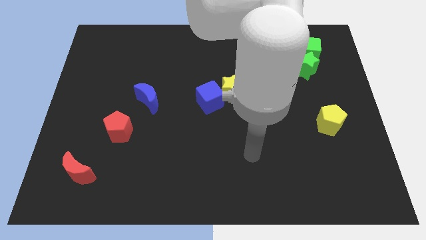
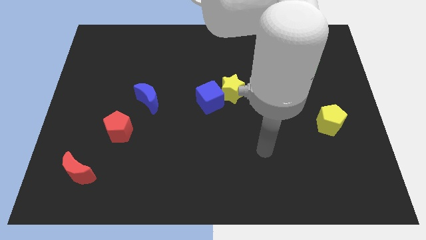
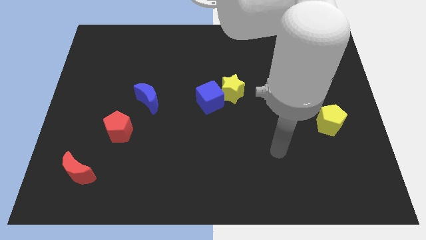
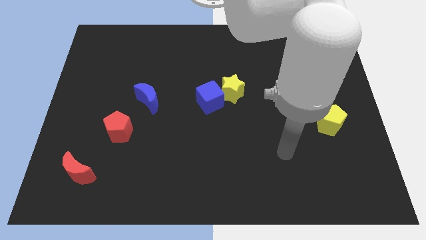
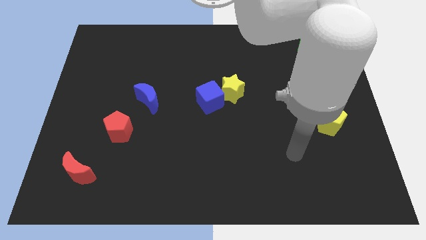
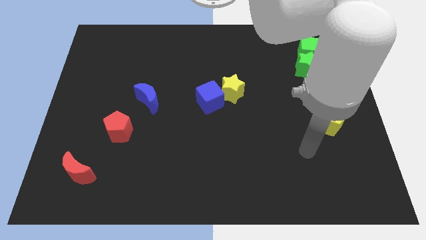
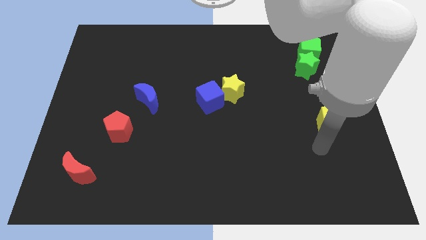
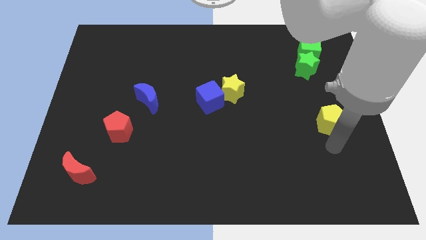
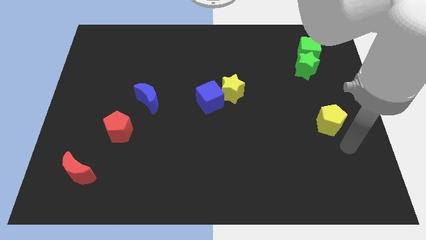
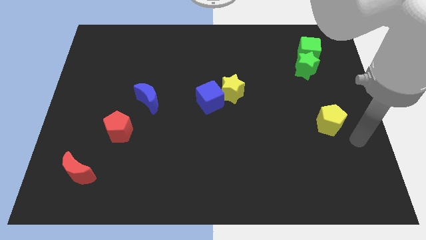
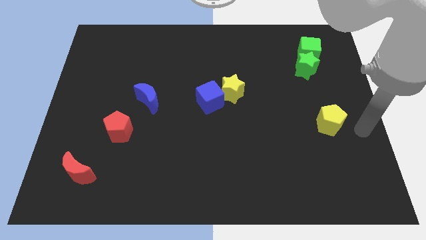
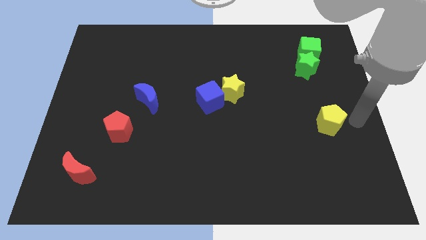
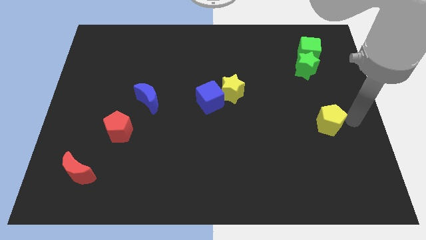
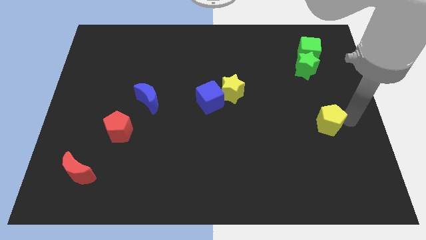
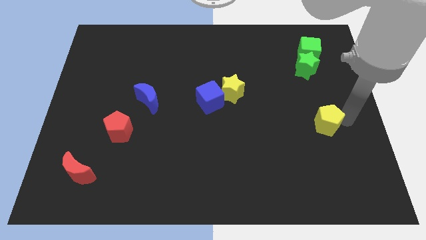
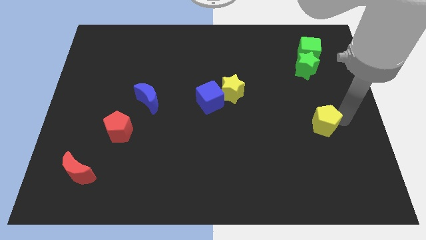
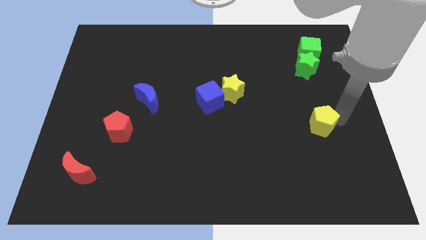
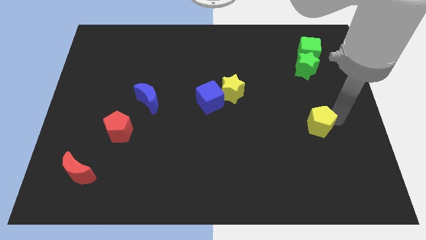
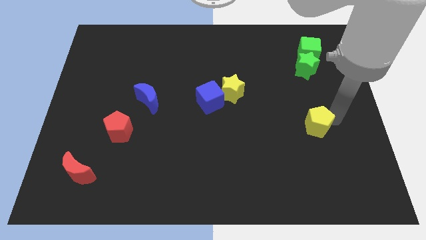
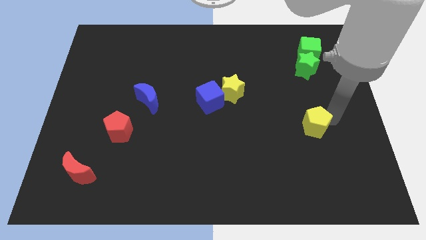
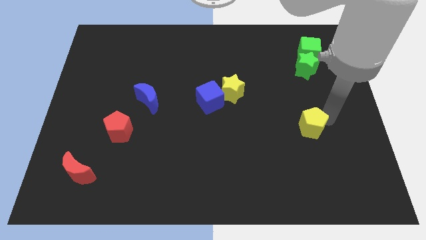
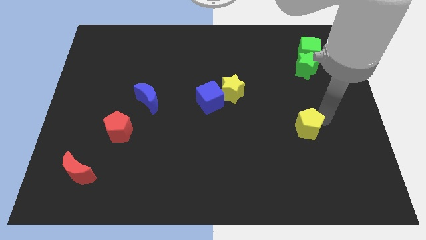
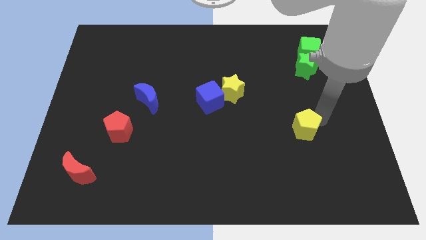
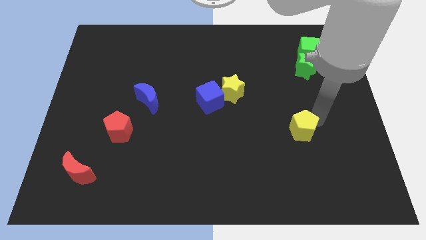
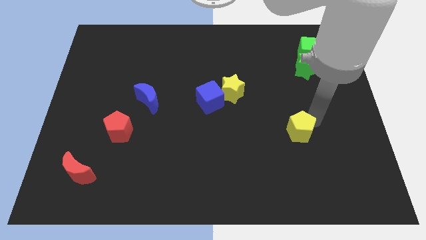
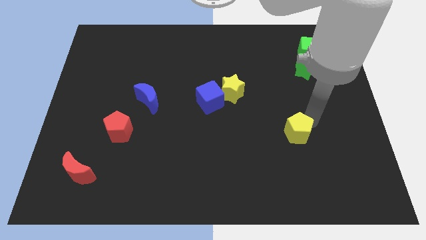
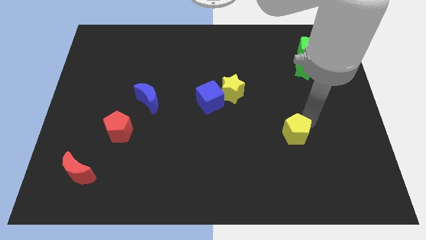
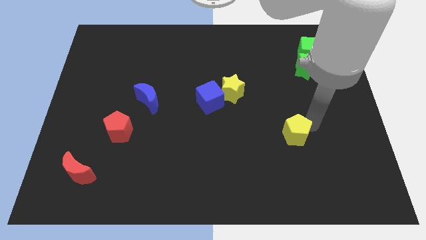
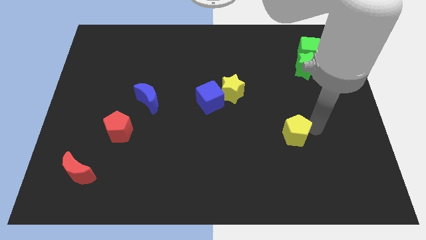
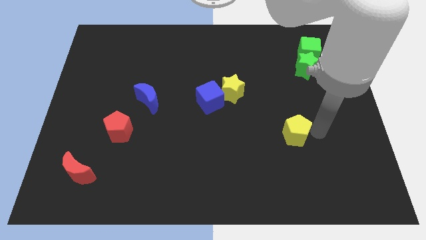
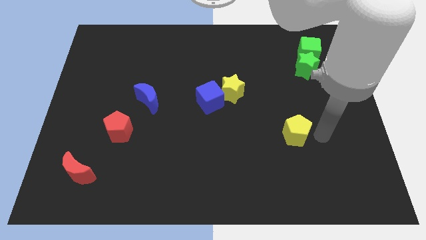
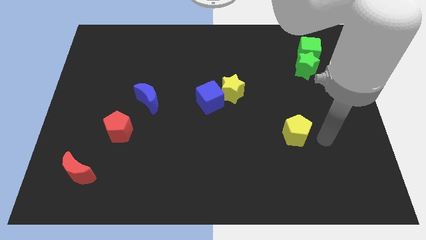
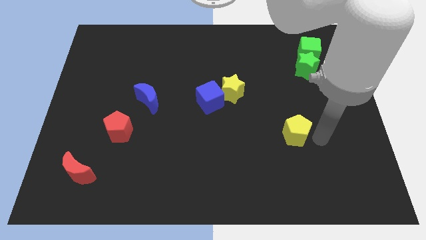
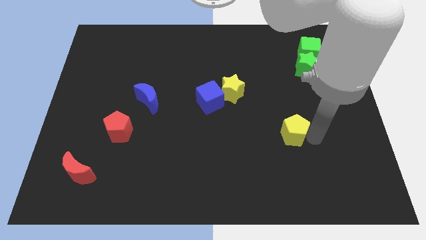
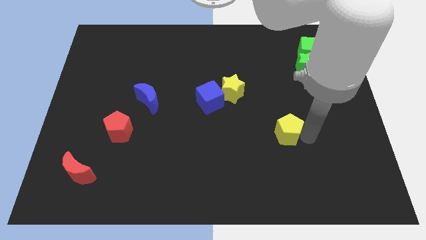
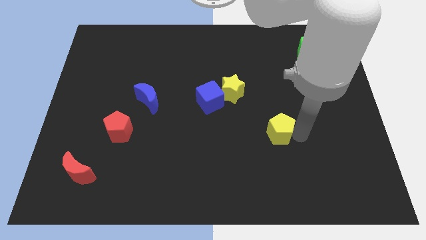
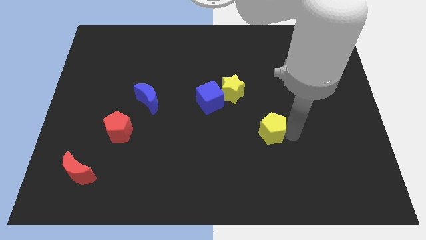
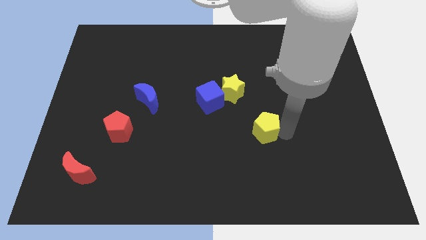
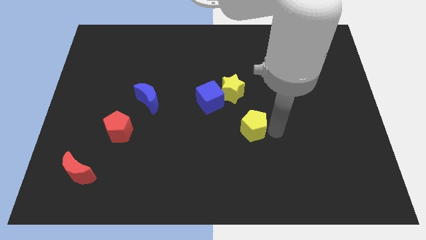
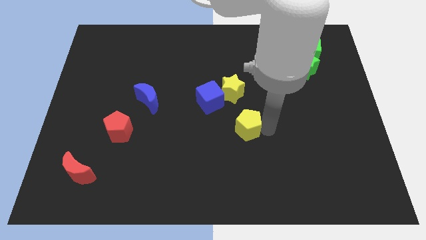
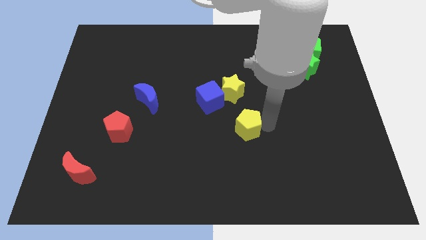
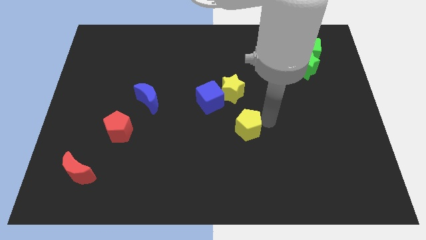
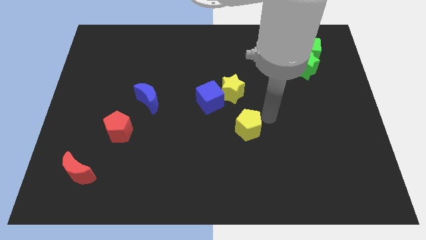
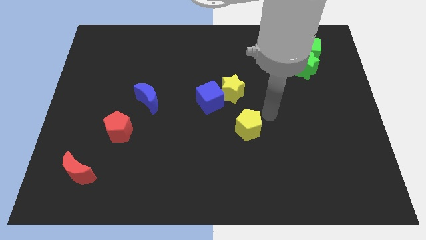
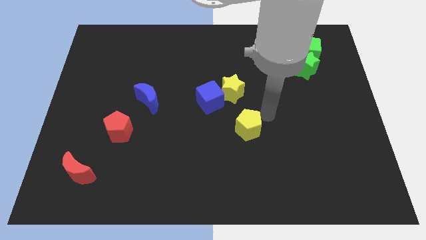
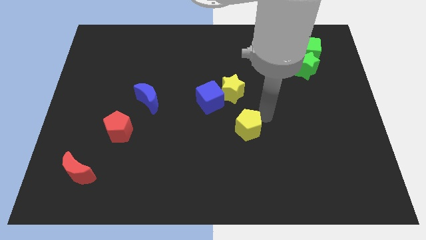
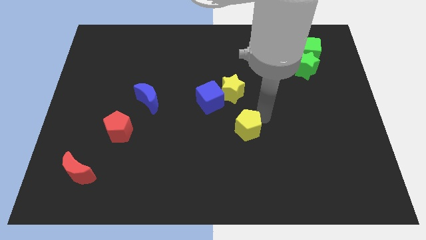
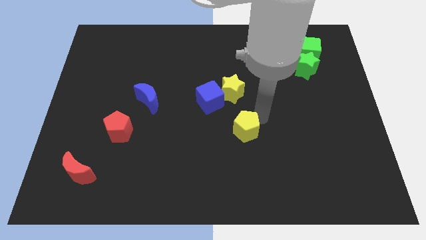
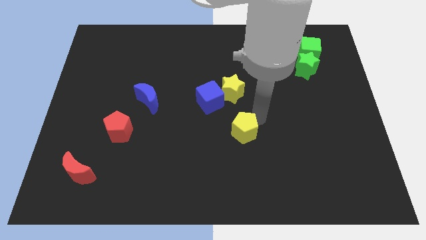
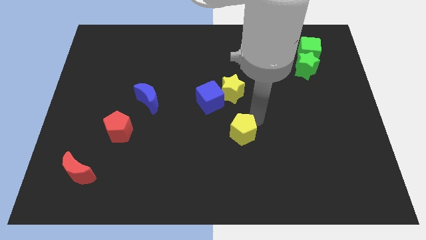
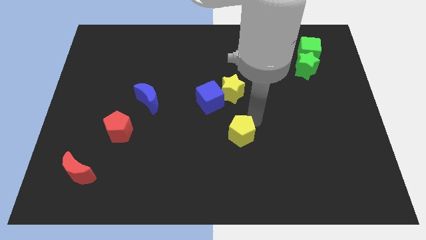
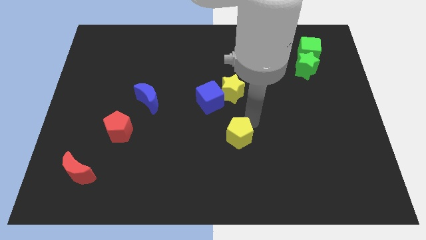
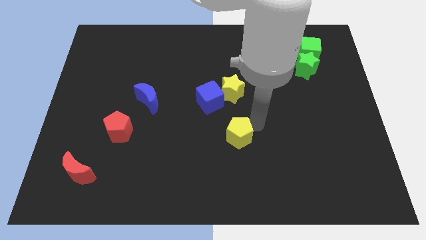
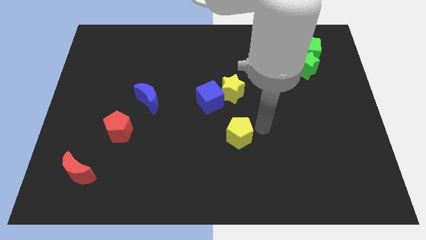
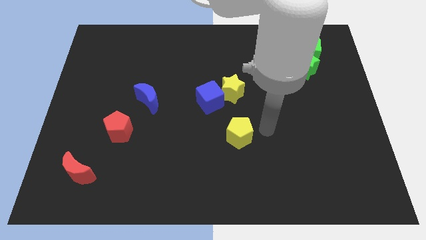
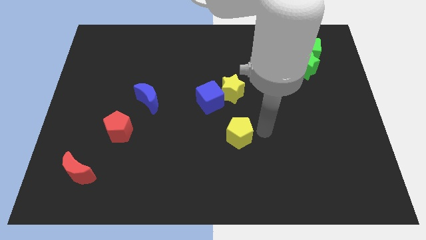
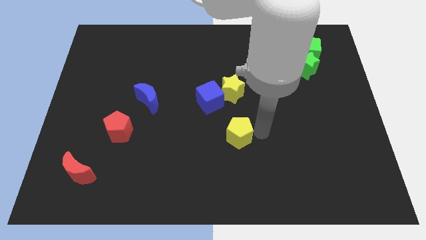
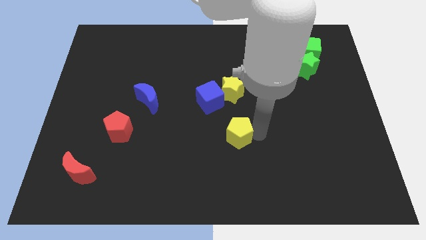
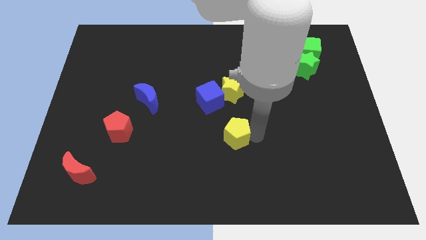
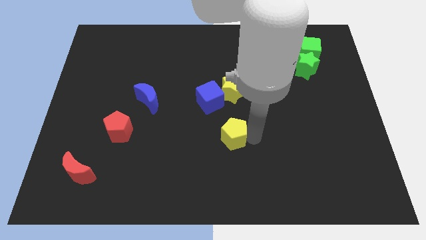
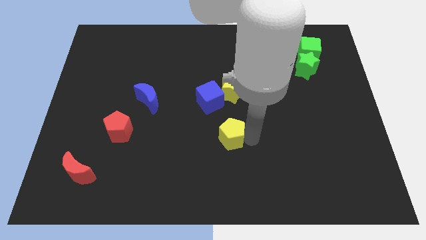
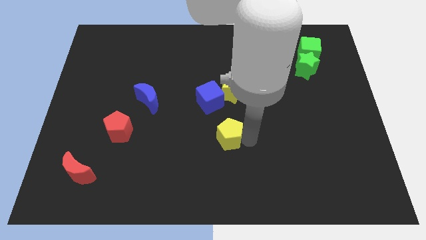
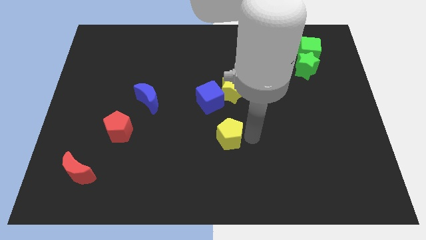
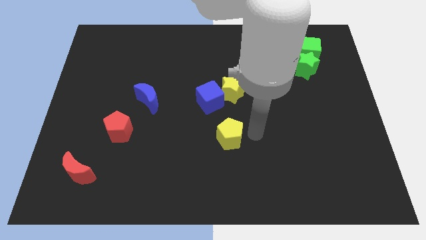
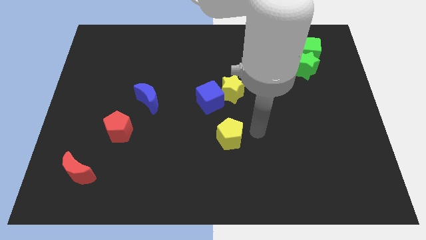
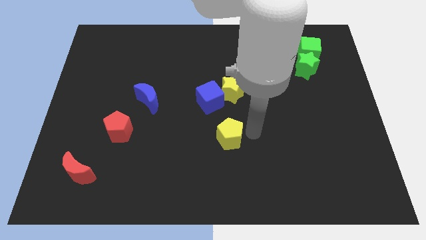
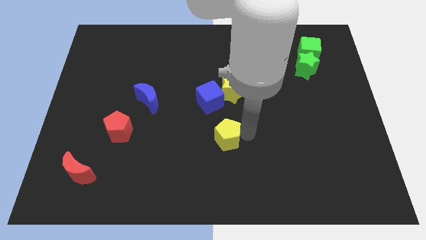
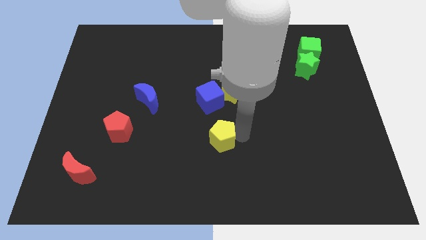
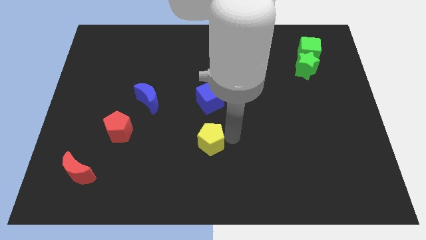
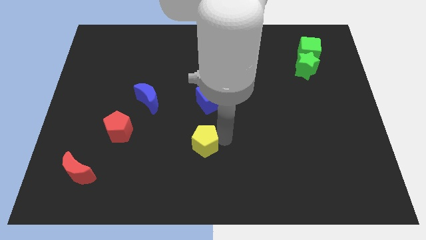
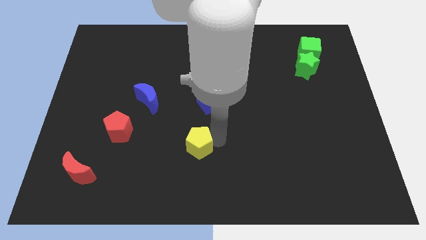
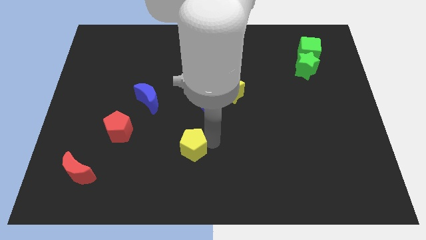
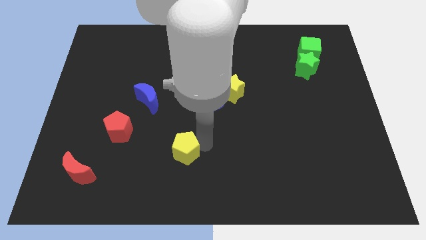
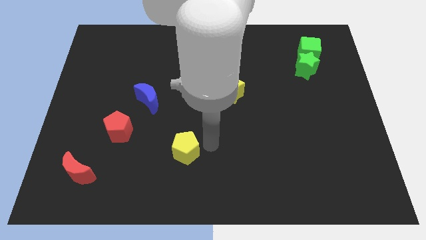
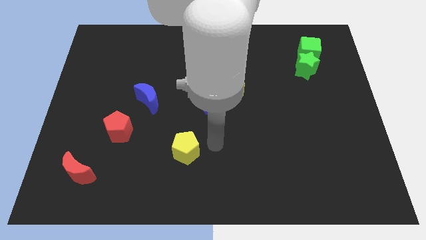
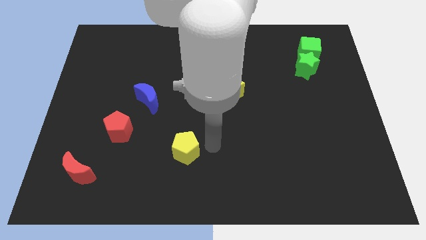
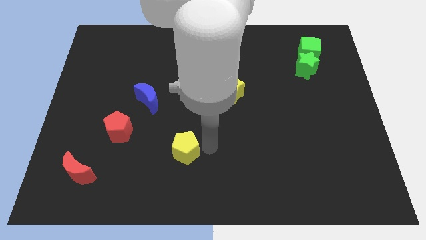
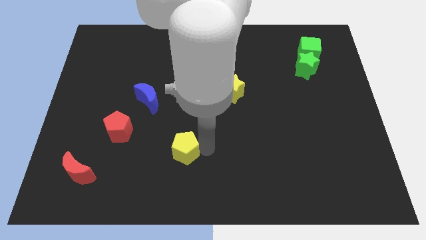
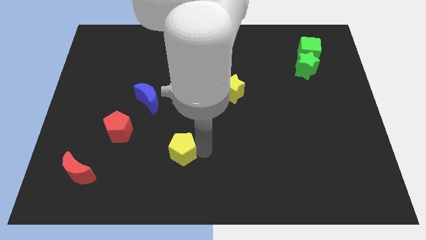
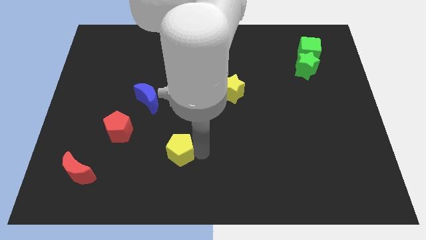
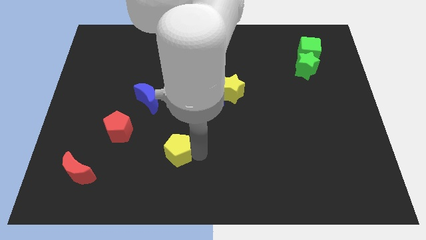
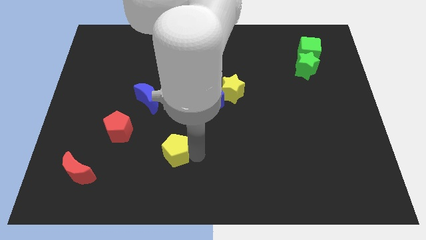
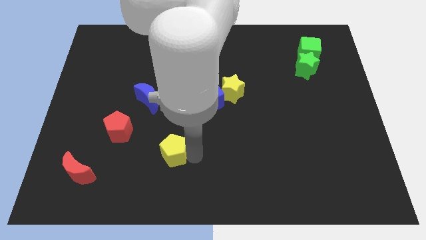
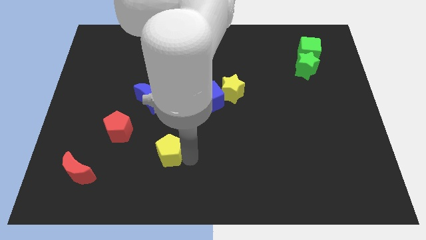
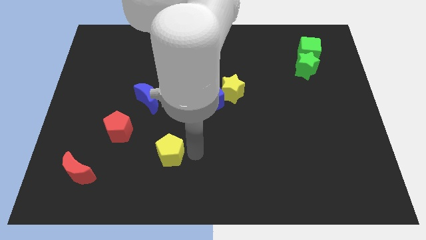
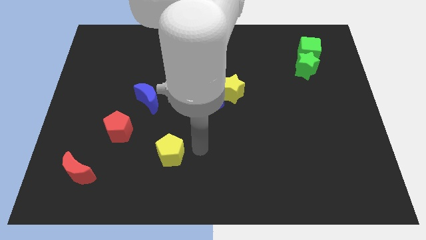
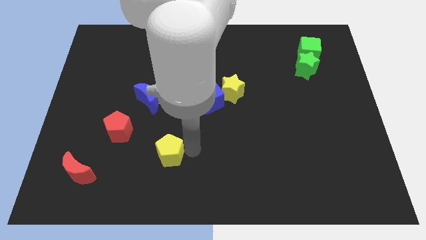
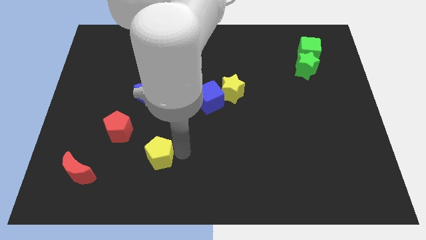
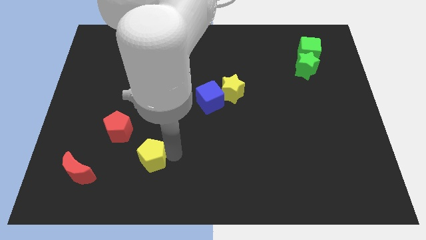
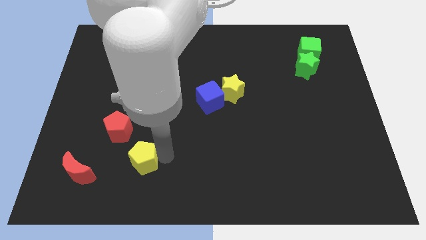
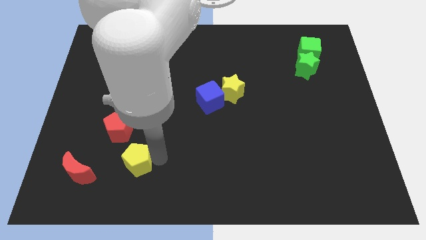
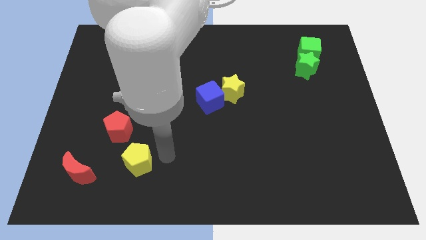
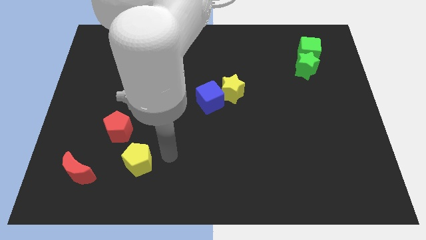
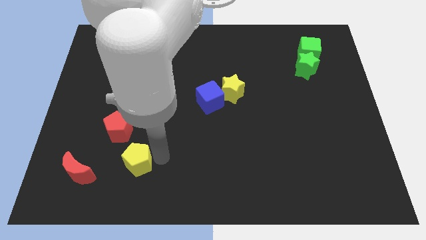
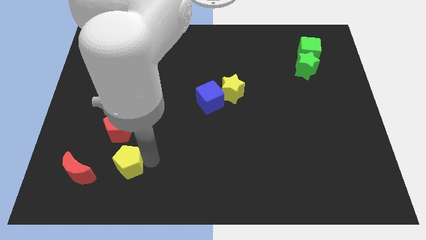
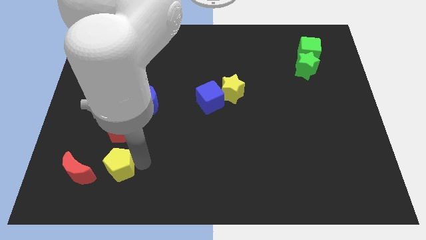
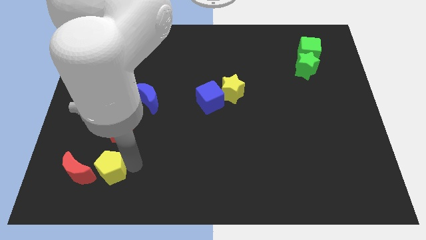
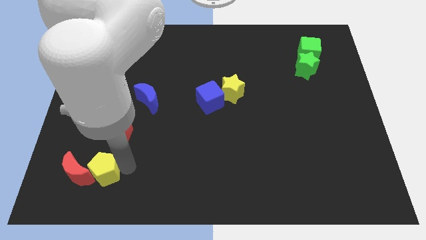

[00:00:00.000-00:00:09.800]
move the yellow pentagon close to the red moon
